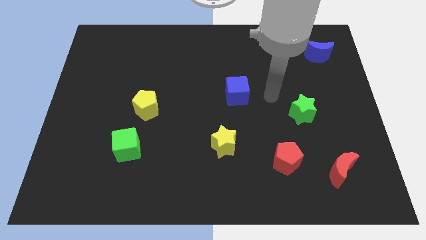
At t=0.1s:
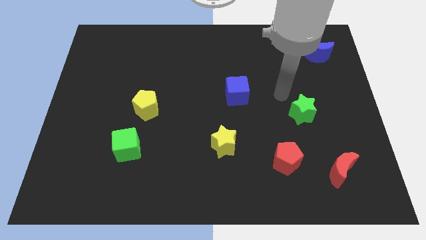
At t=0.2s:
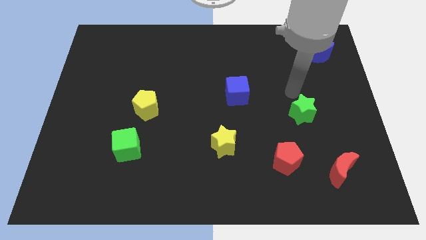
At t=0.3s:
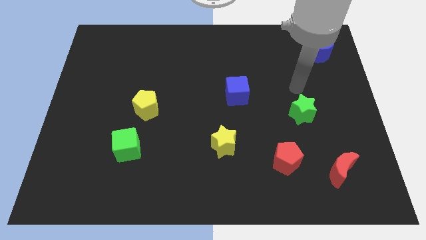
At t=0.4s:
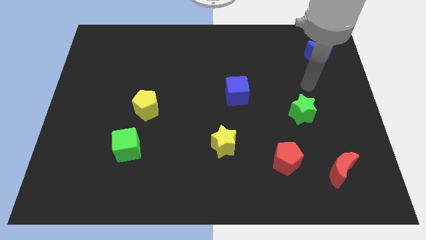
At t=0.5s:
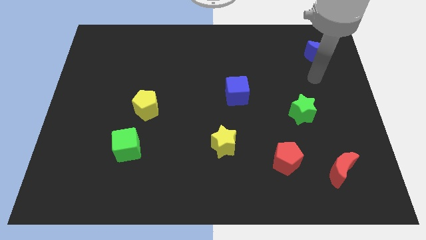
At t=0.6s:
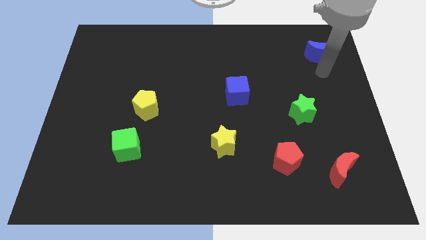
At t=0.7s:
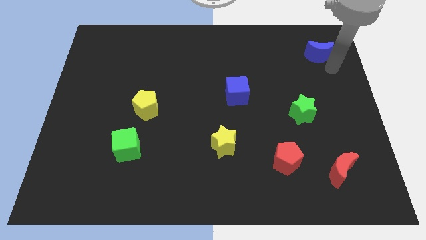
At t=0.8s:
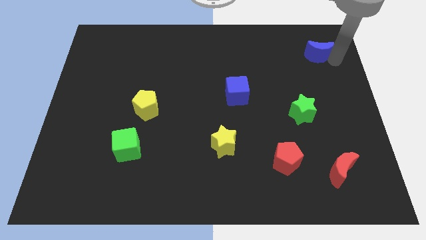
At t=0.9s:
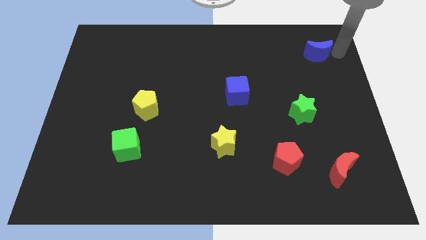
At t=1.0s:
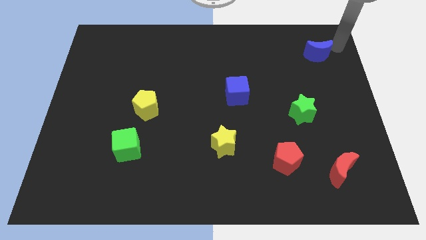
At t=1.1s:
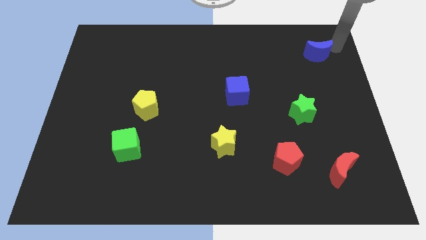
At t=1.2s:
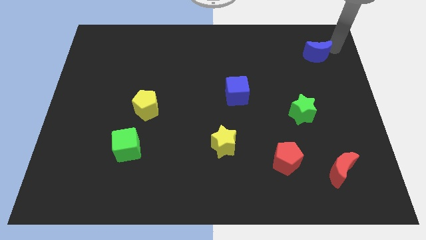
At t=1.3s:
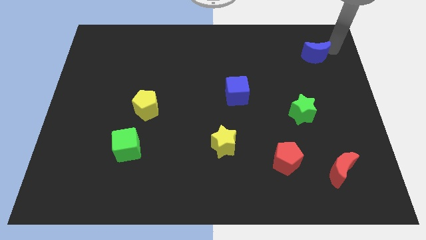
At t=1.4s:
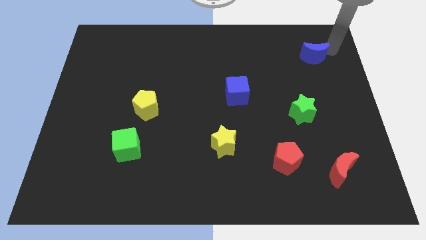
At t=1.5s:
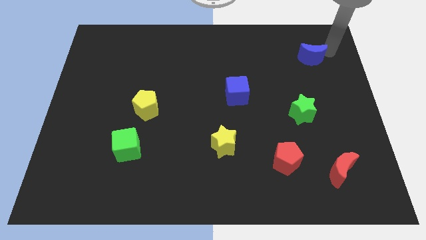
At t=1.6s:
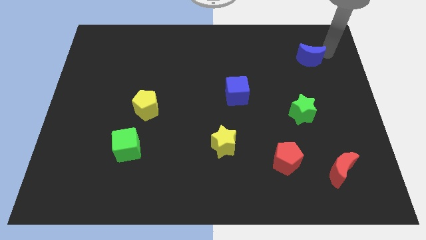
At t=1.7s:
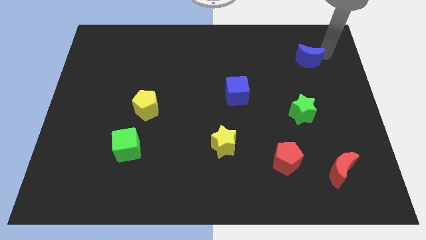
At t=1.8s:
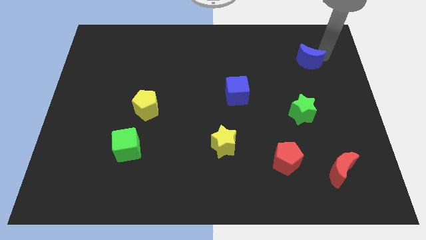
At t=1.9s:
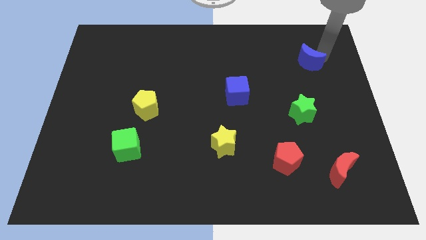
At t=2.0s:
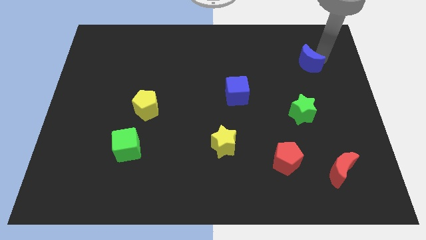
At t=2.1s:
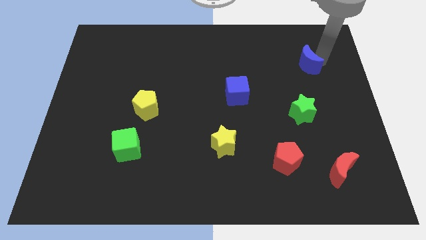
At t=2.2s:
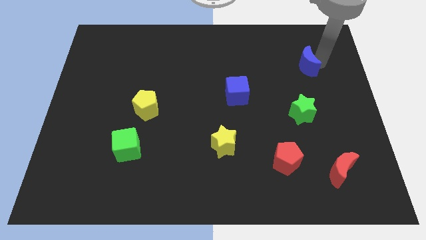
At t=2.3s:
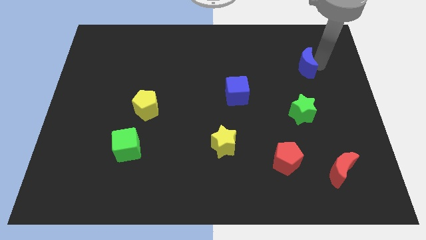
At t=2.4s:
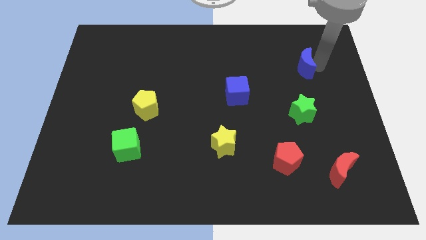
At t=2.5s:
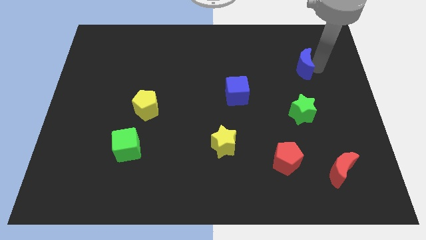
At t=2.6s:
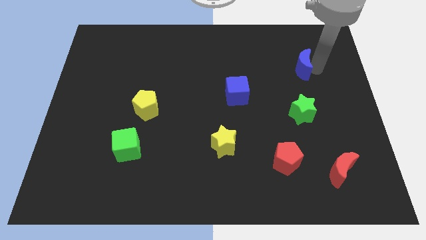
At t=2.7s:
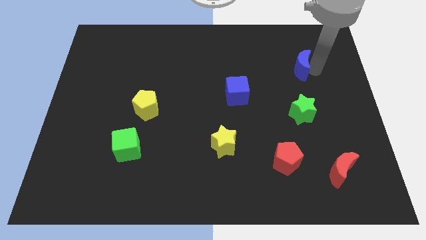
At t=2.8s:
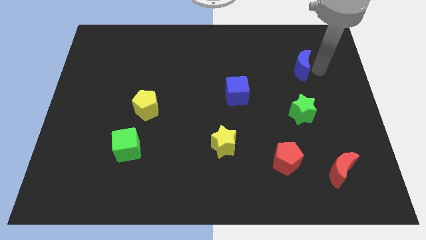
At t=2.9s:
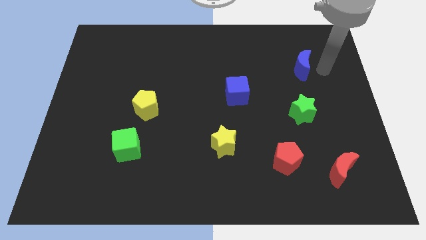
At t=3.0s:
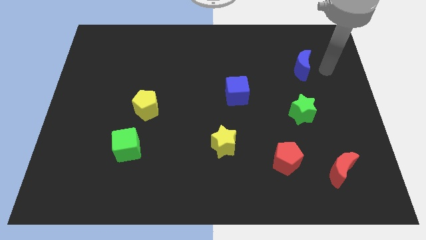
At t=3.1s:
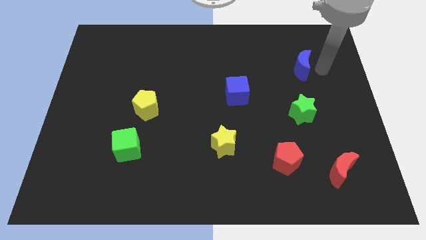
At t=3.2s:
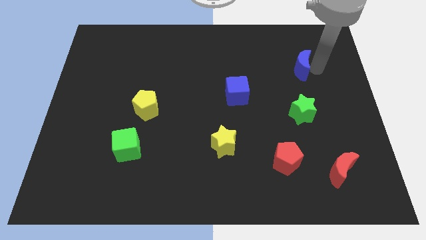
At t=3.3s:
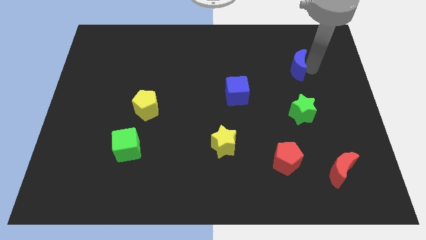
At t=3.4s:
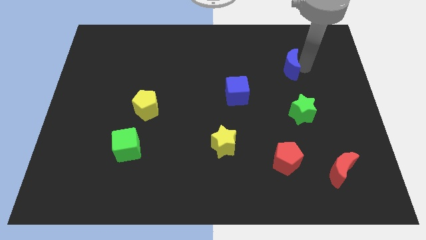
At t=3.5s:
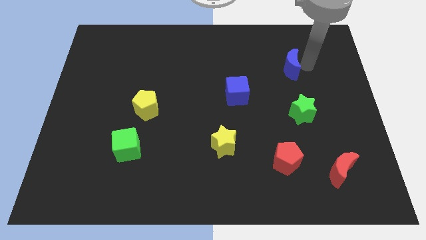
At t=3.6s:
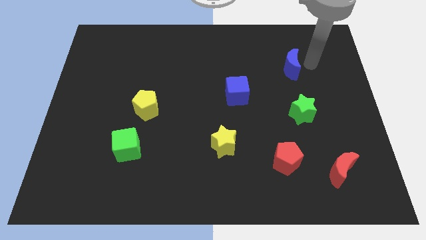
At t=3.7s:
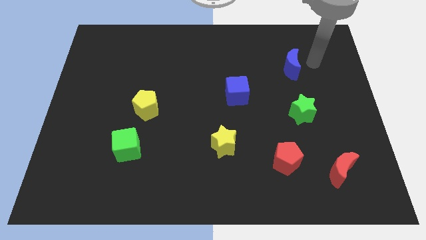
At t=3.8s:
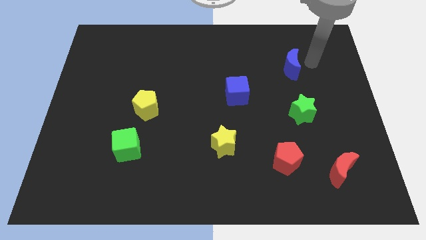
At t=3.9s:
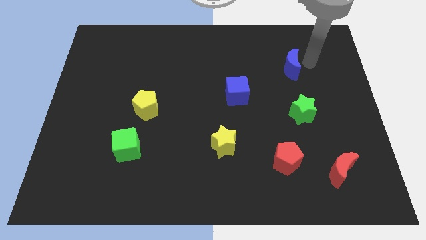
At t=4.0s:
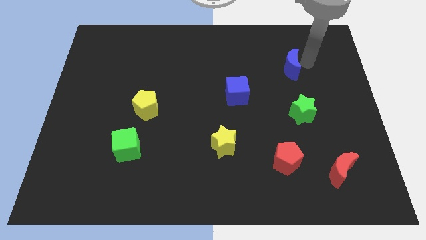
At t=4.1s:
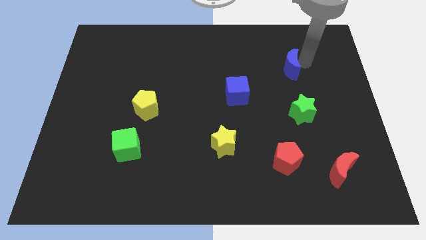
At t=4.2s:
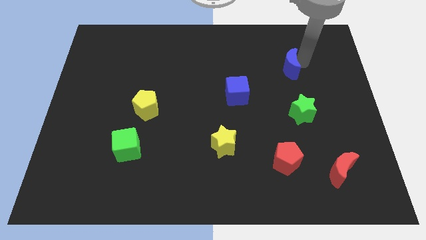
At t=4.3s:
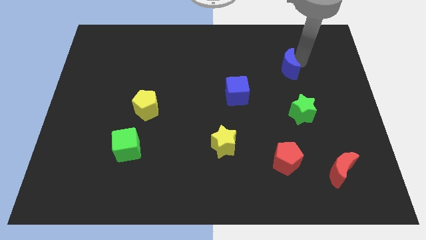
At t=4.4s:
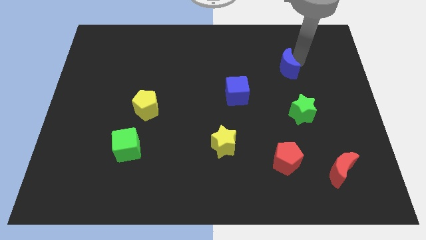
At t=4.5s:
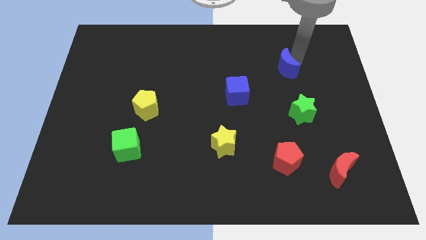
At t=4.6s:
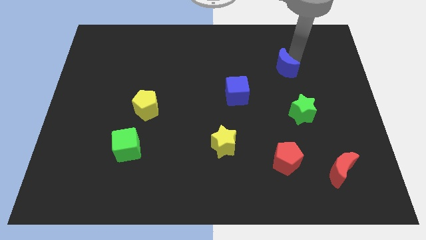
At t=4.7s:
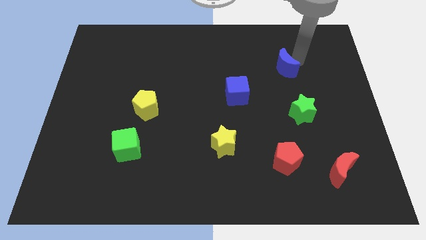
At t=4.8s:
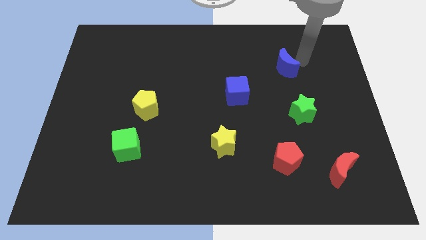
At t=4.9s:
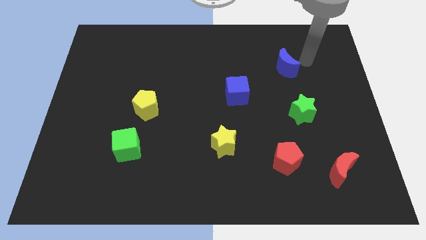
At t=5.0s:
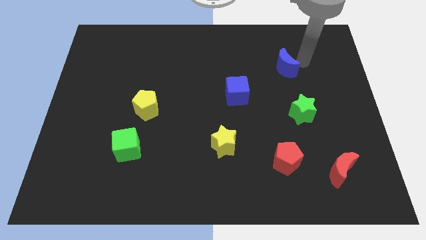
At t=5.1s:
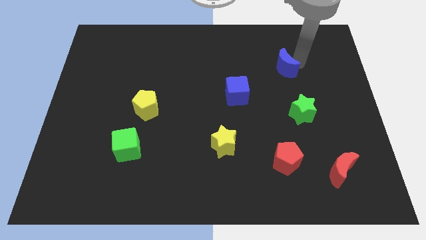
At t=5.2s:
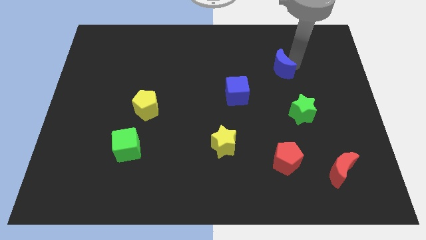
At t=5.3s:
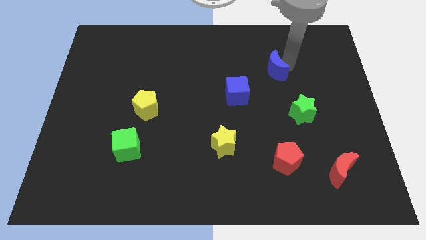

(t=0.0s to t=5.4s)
put the blue moon to the top right side of the blue cube

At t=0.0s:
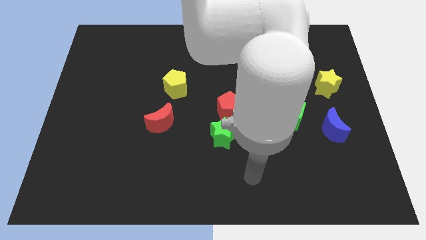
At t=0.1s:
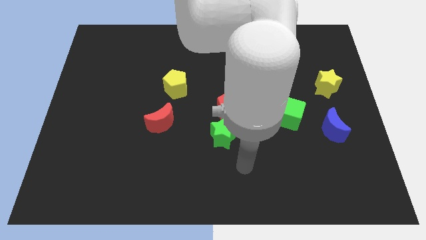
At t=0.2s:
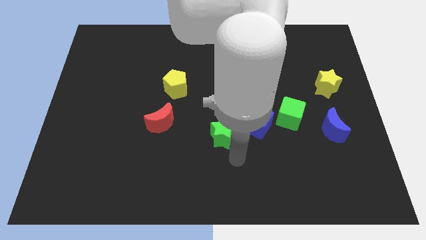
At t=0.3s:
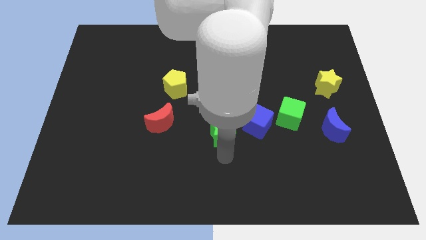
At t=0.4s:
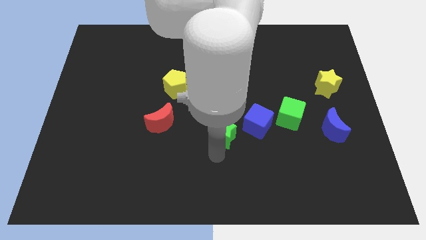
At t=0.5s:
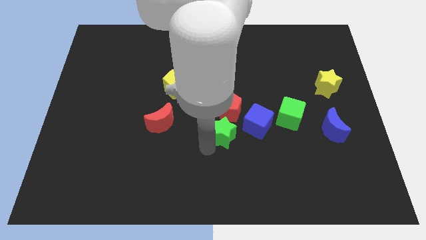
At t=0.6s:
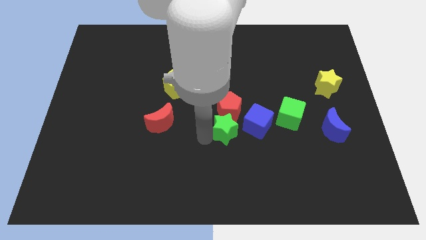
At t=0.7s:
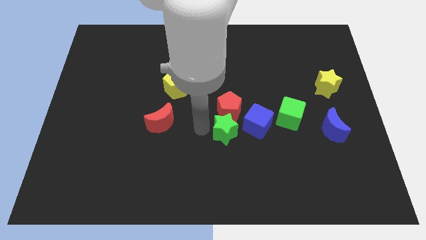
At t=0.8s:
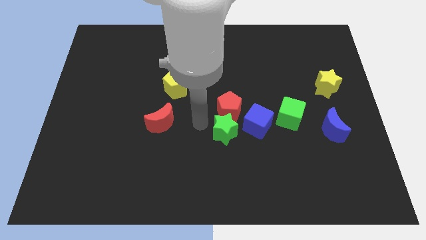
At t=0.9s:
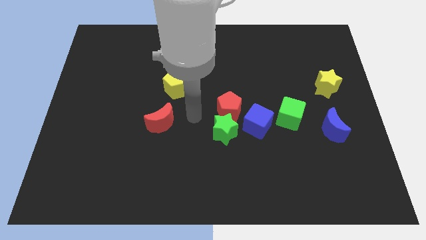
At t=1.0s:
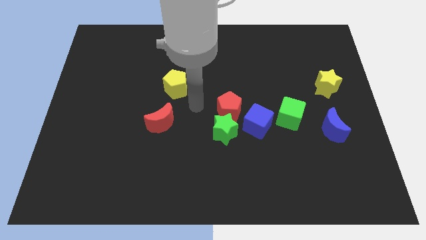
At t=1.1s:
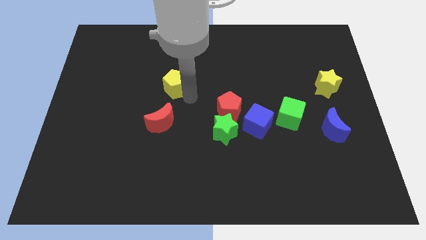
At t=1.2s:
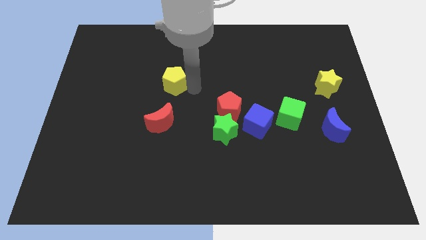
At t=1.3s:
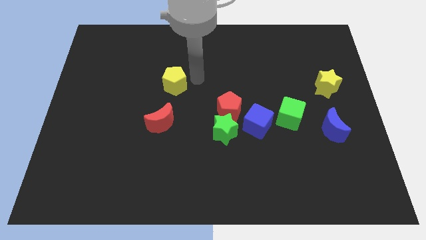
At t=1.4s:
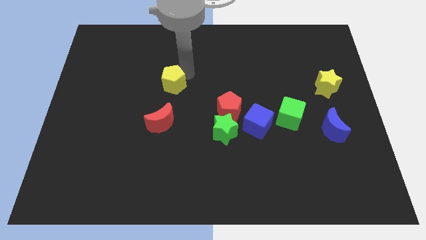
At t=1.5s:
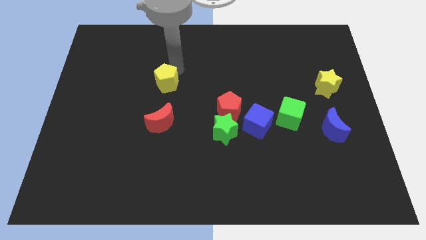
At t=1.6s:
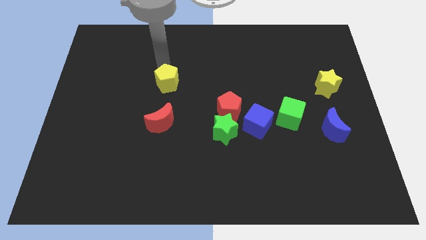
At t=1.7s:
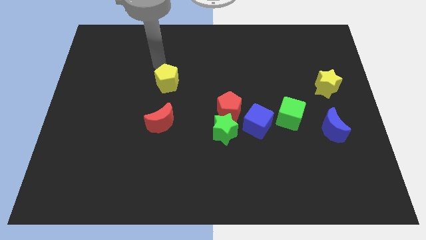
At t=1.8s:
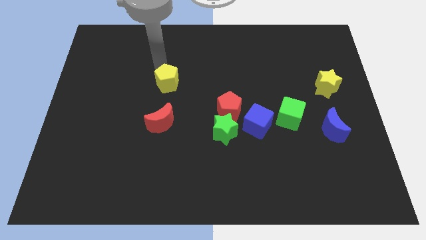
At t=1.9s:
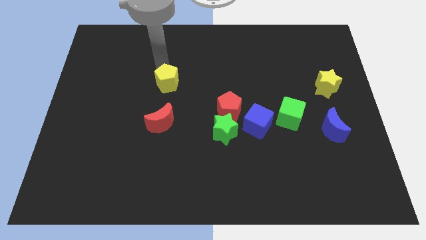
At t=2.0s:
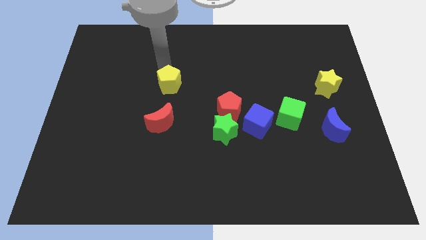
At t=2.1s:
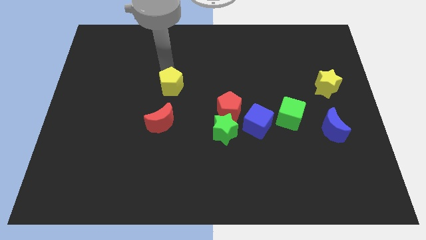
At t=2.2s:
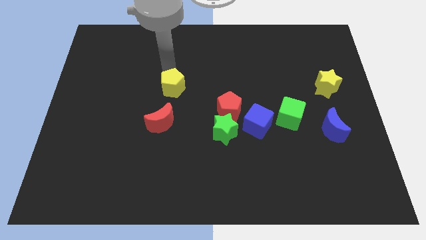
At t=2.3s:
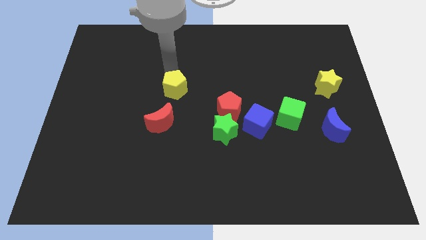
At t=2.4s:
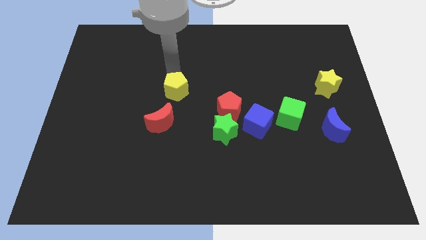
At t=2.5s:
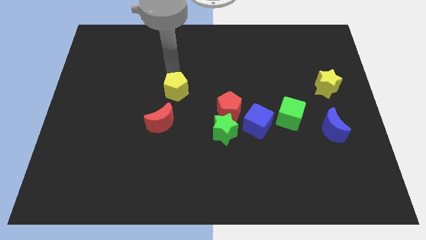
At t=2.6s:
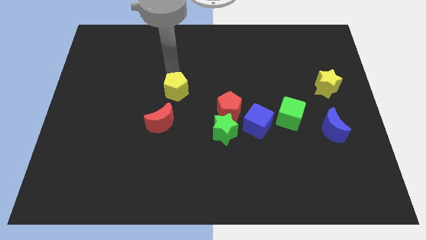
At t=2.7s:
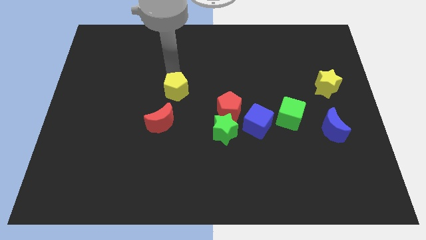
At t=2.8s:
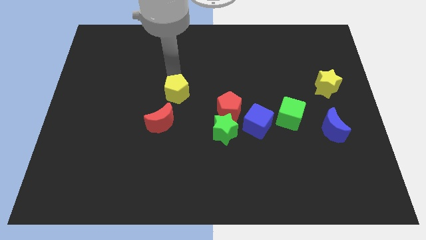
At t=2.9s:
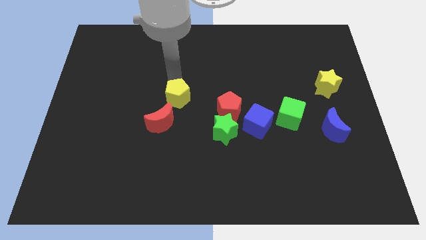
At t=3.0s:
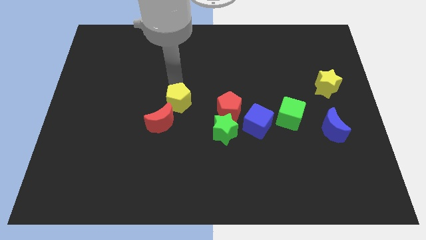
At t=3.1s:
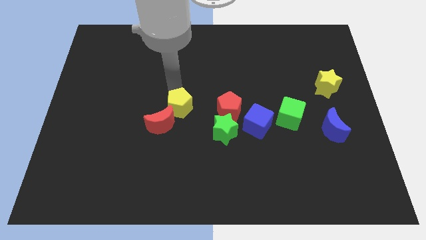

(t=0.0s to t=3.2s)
move the yellow pentagon to the top left of the green star
